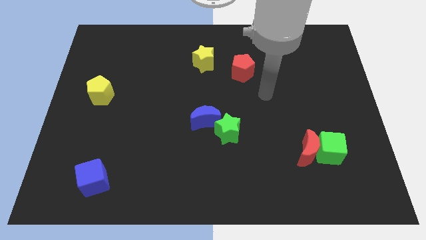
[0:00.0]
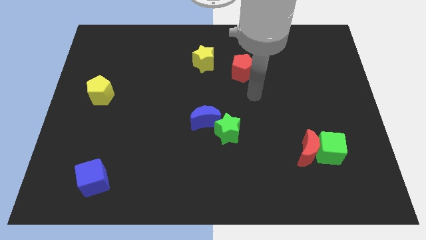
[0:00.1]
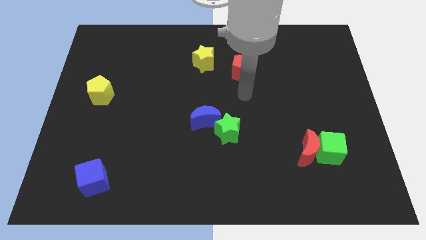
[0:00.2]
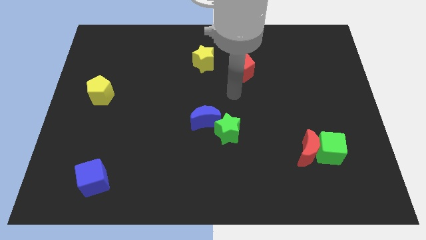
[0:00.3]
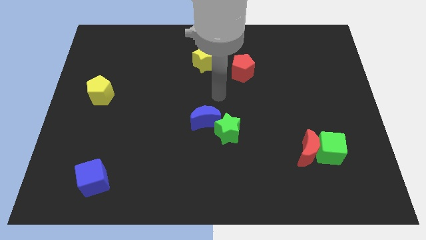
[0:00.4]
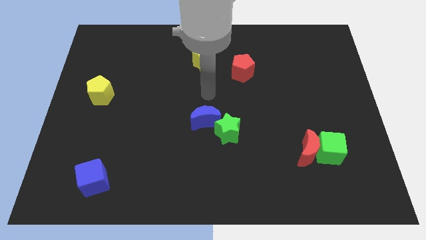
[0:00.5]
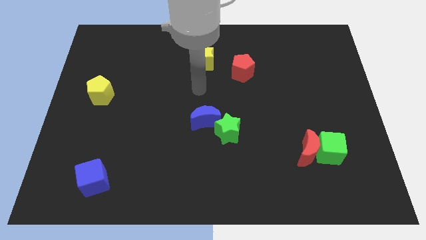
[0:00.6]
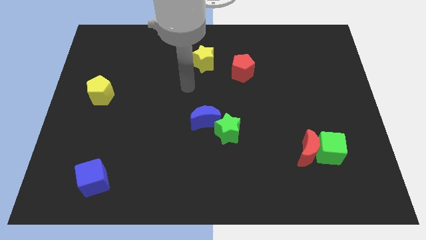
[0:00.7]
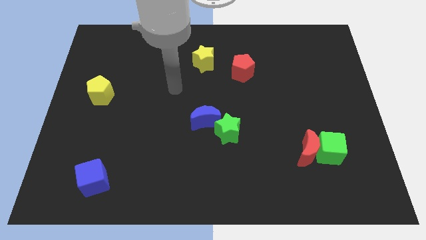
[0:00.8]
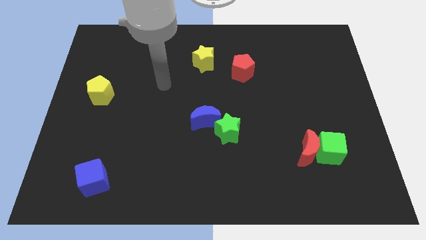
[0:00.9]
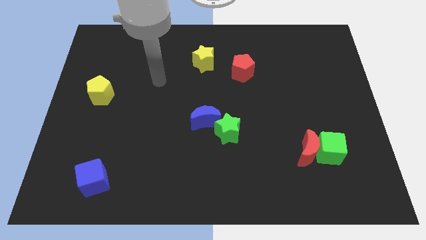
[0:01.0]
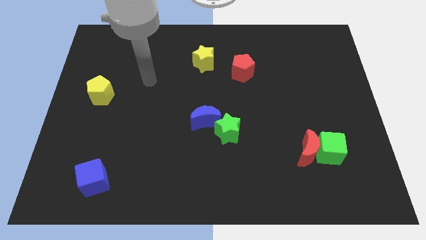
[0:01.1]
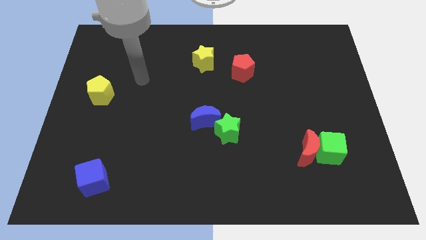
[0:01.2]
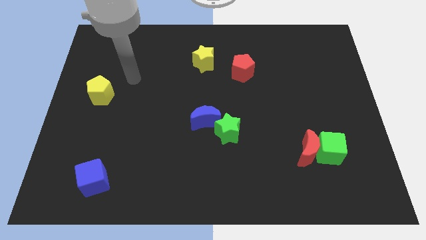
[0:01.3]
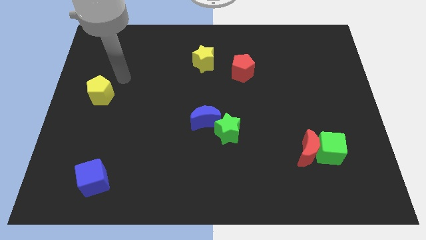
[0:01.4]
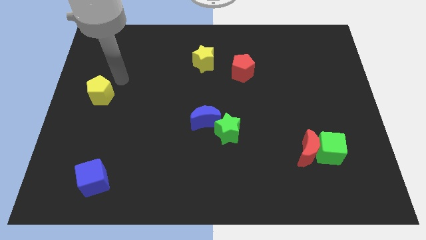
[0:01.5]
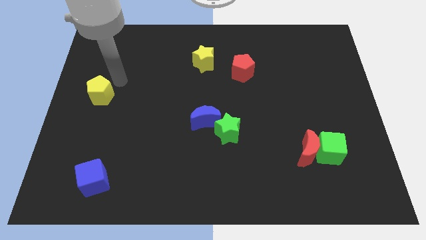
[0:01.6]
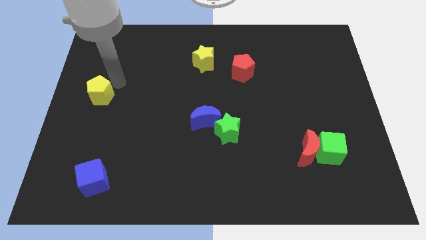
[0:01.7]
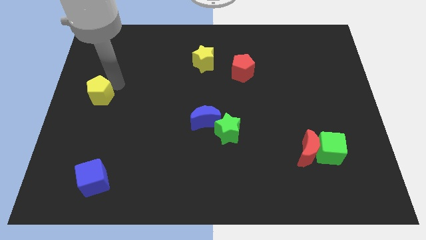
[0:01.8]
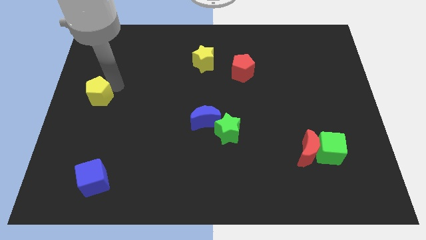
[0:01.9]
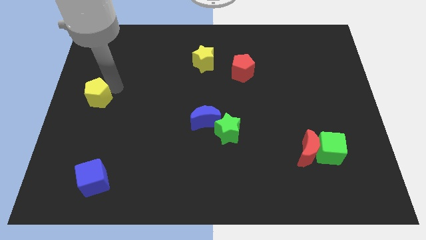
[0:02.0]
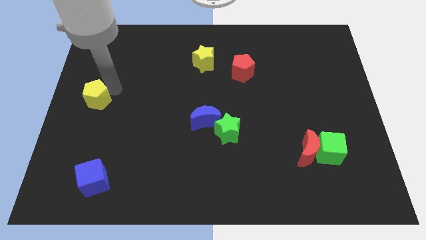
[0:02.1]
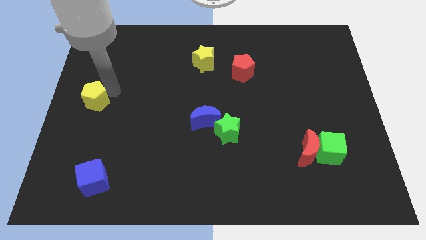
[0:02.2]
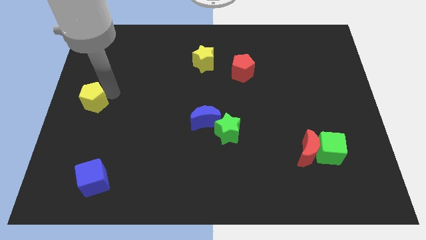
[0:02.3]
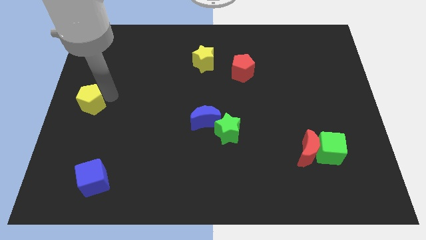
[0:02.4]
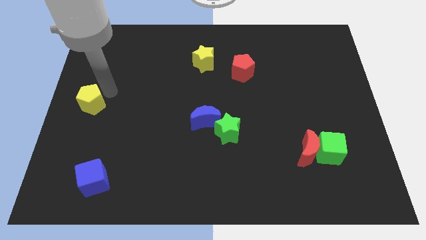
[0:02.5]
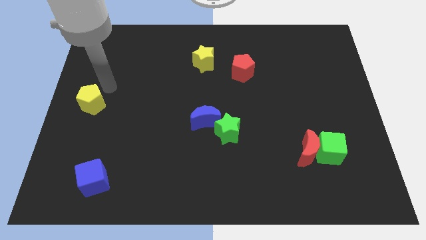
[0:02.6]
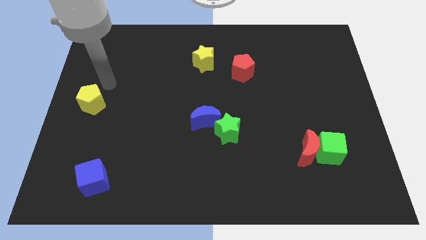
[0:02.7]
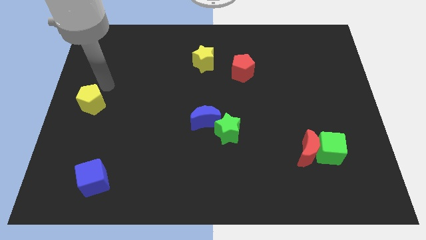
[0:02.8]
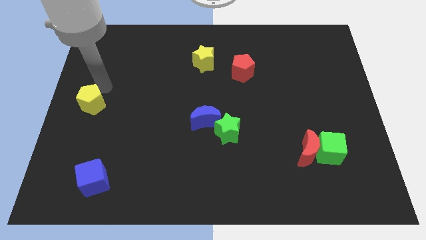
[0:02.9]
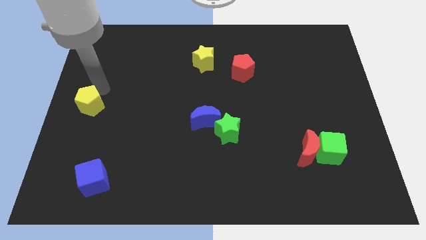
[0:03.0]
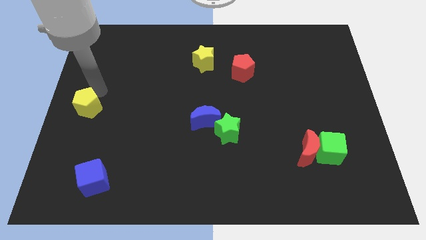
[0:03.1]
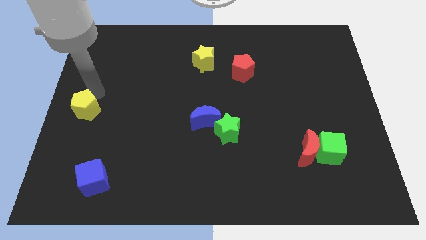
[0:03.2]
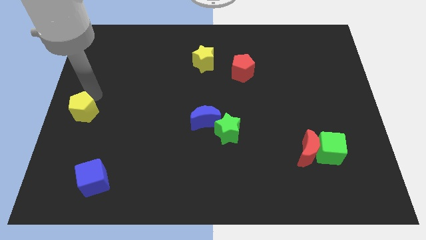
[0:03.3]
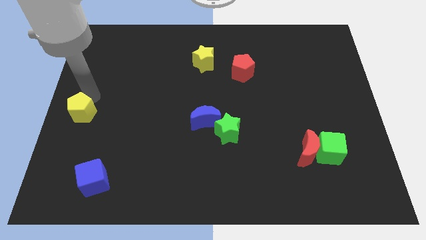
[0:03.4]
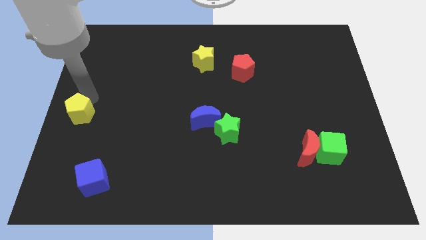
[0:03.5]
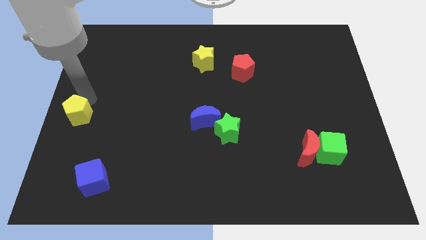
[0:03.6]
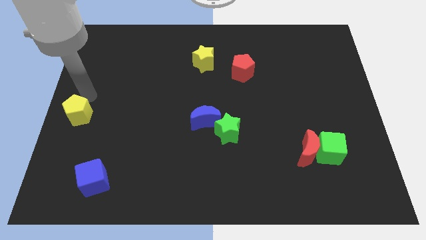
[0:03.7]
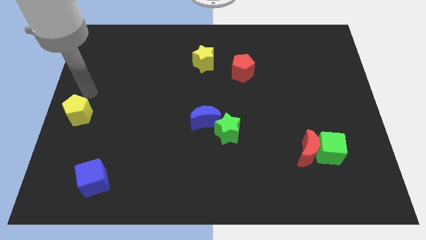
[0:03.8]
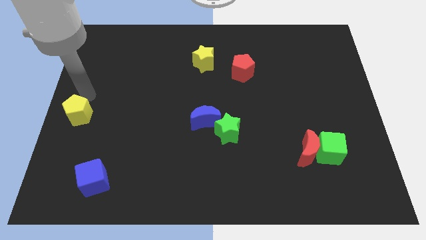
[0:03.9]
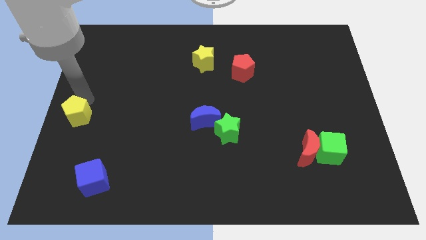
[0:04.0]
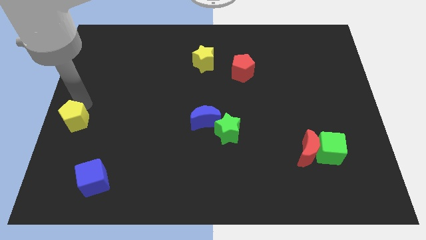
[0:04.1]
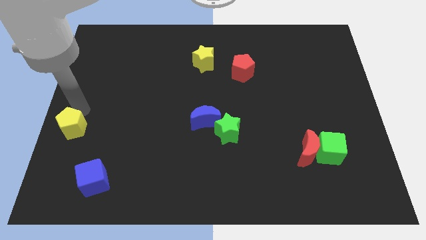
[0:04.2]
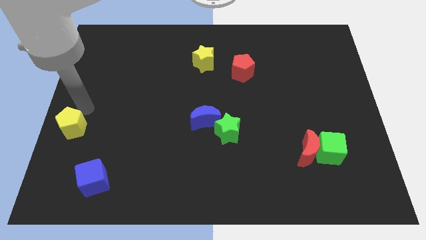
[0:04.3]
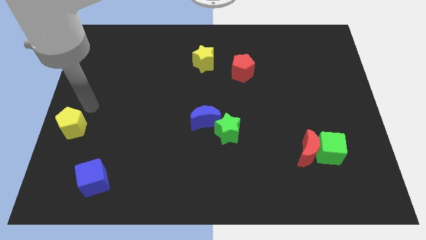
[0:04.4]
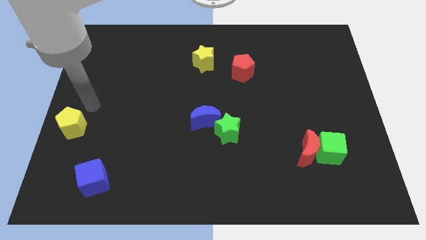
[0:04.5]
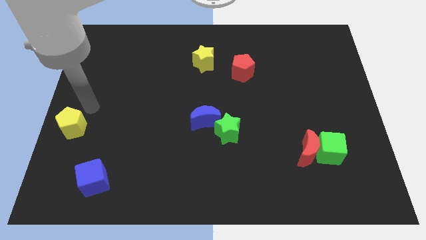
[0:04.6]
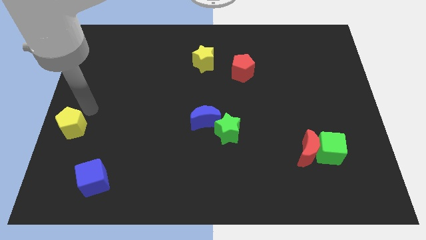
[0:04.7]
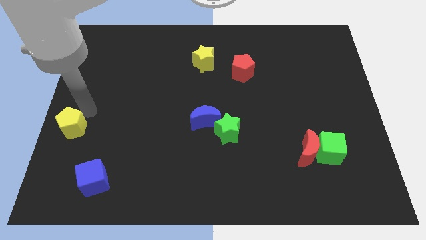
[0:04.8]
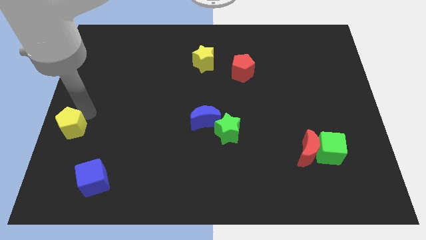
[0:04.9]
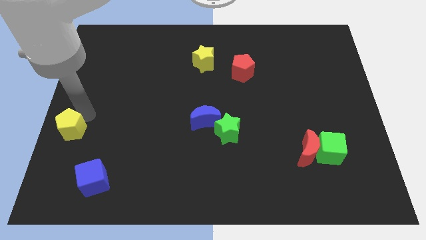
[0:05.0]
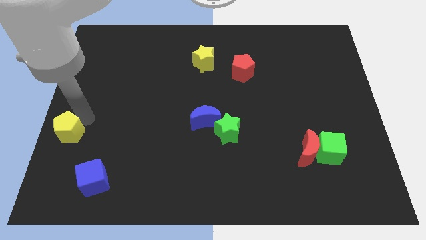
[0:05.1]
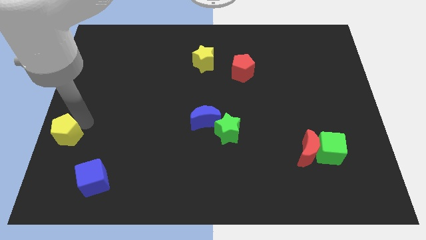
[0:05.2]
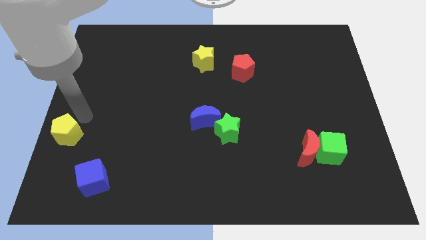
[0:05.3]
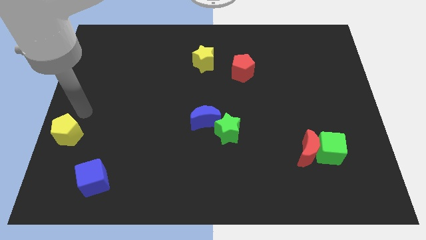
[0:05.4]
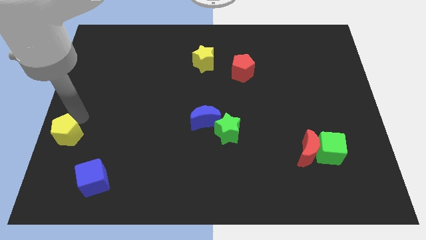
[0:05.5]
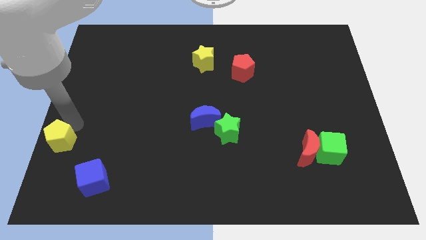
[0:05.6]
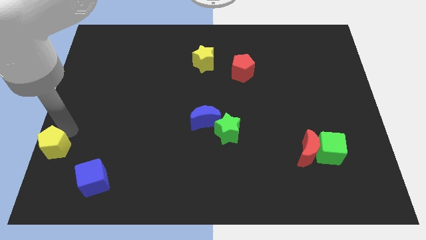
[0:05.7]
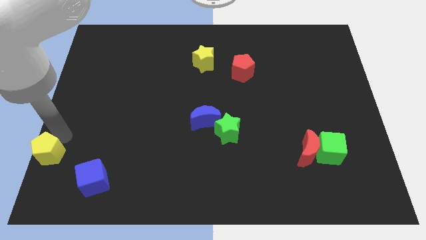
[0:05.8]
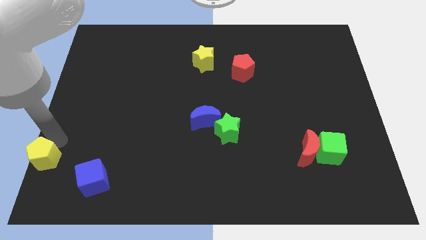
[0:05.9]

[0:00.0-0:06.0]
move the yellow pentagon to the bottom left corner

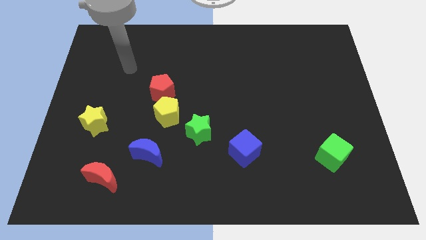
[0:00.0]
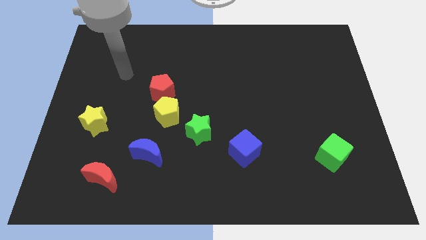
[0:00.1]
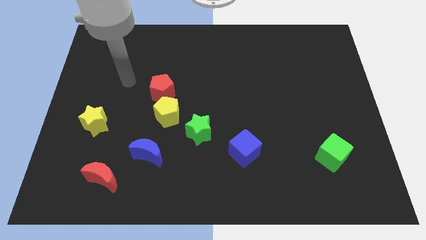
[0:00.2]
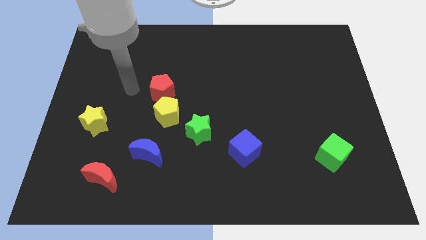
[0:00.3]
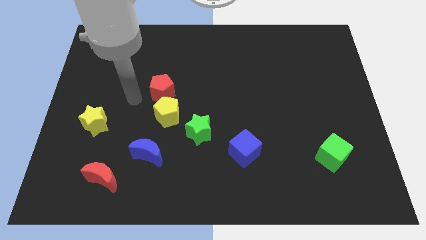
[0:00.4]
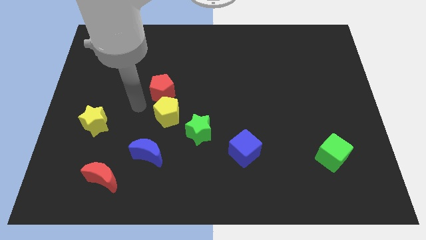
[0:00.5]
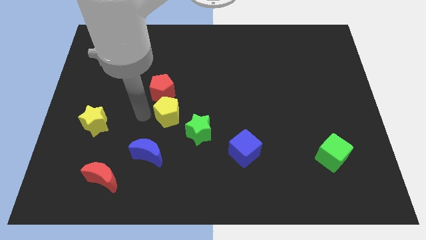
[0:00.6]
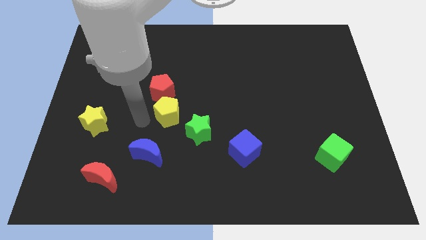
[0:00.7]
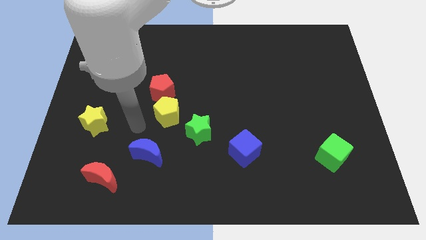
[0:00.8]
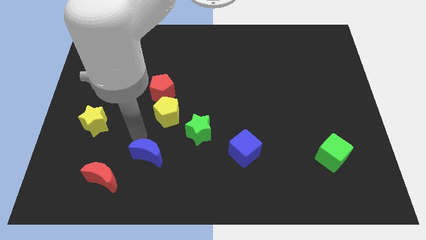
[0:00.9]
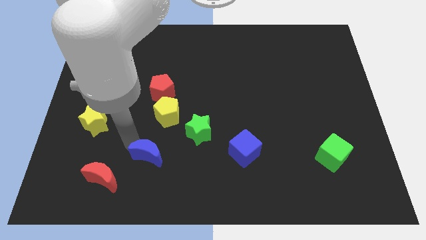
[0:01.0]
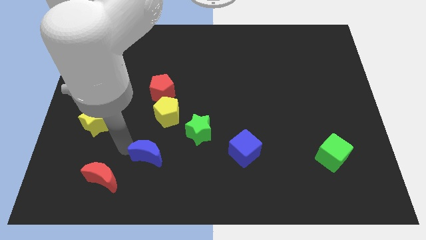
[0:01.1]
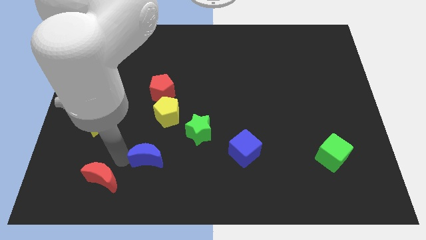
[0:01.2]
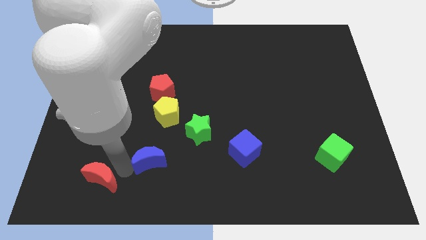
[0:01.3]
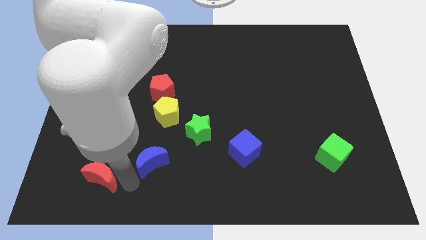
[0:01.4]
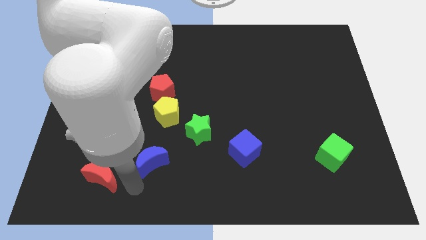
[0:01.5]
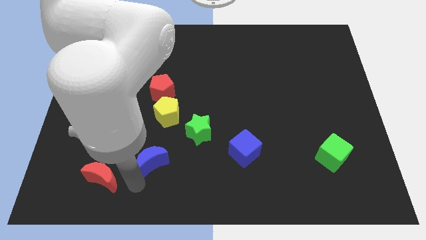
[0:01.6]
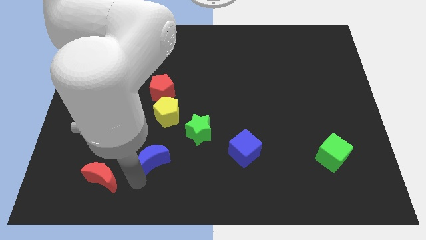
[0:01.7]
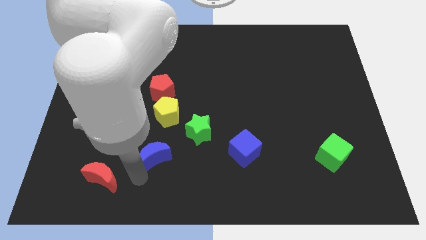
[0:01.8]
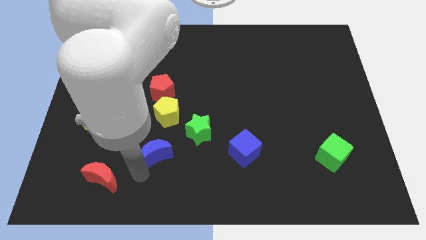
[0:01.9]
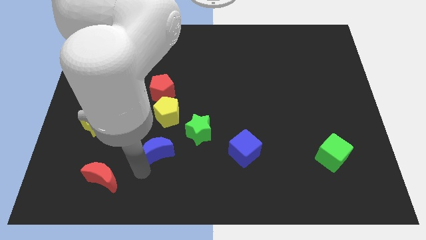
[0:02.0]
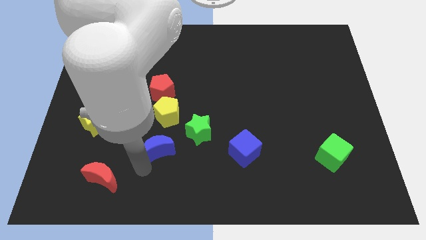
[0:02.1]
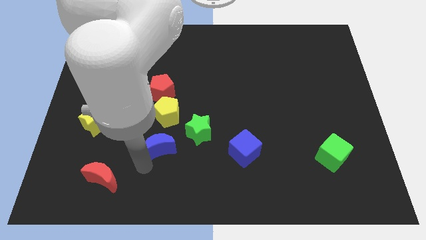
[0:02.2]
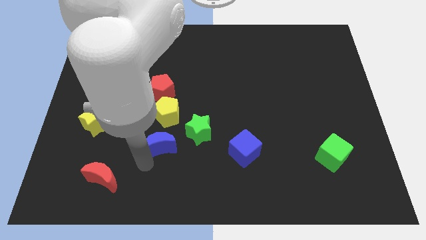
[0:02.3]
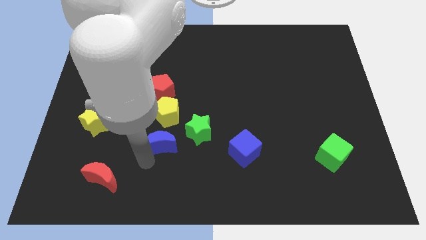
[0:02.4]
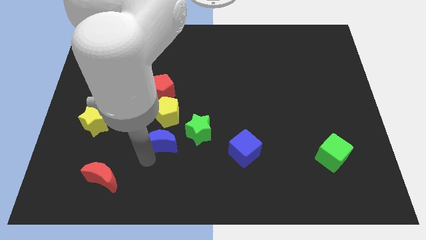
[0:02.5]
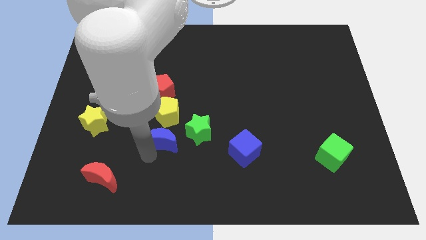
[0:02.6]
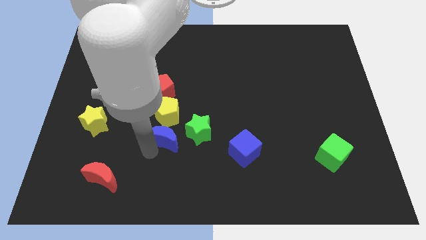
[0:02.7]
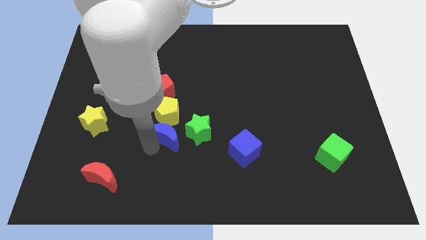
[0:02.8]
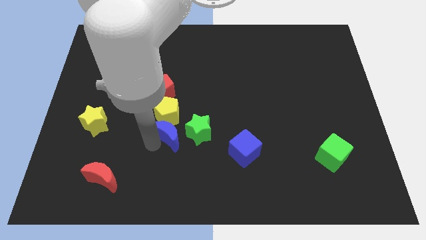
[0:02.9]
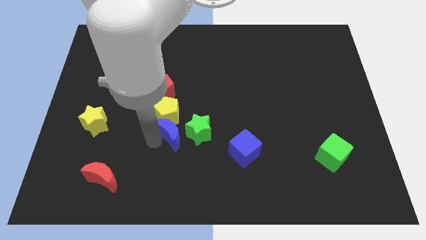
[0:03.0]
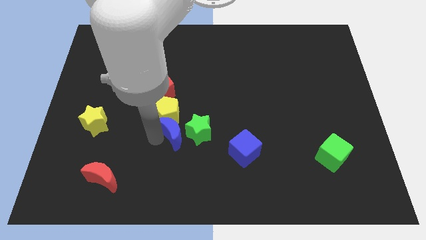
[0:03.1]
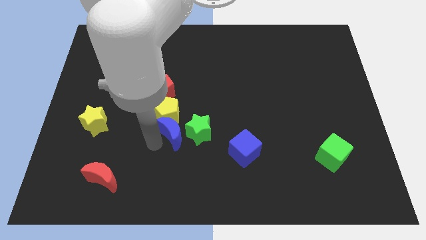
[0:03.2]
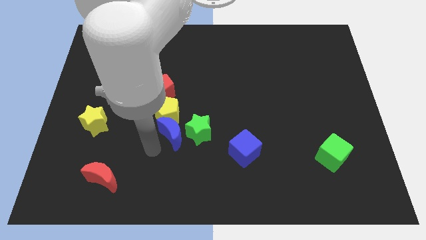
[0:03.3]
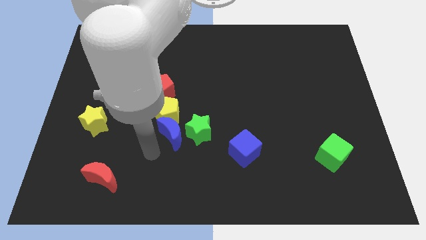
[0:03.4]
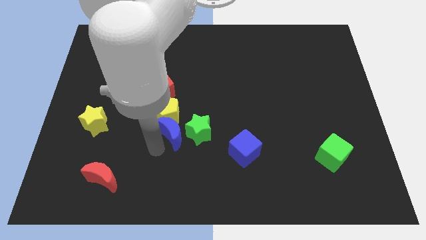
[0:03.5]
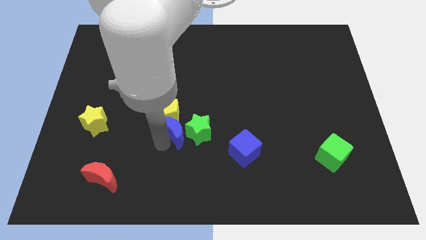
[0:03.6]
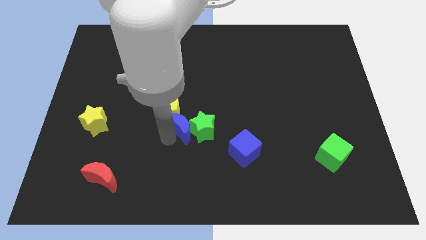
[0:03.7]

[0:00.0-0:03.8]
move the blue moon to the center
